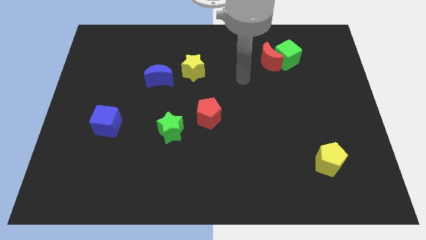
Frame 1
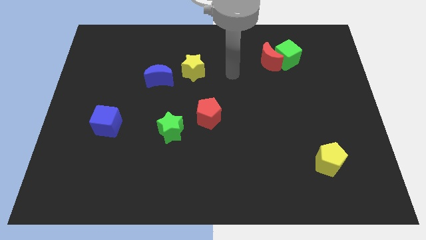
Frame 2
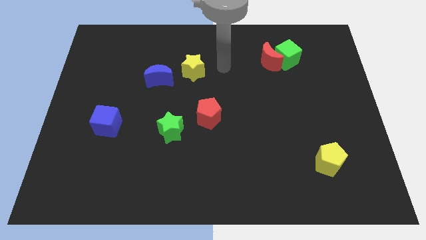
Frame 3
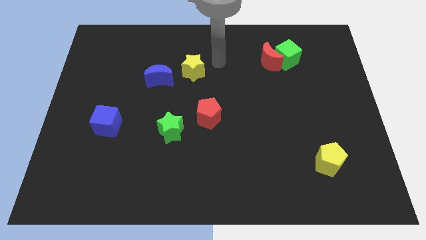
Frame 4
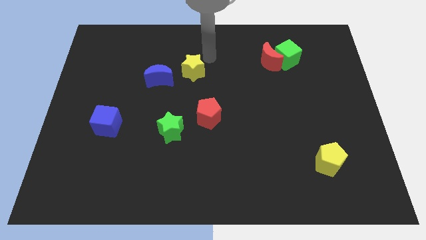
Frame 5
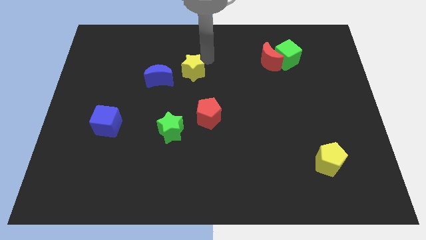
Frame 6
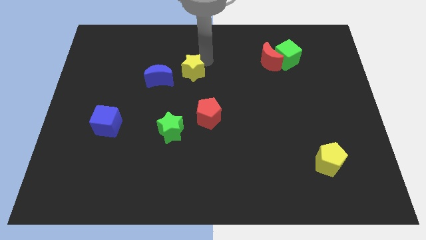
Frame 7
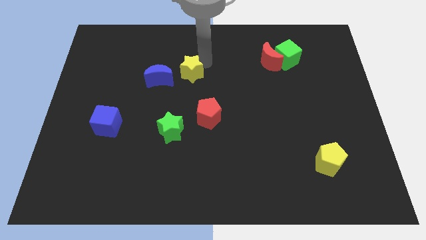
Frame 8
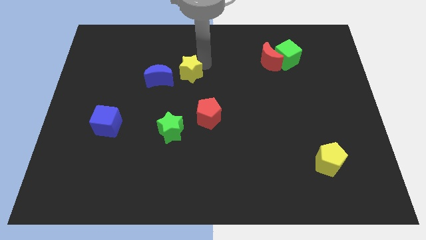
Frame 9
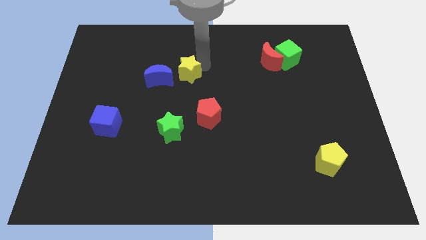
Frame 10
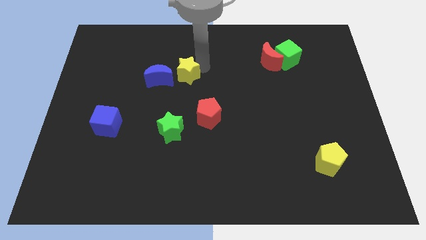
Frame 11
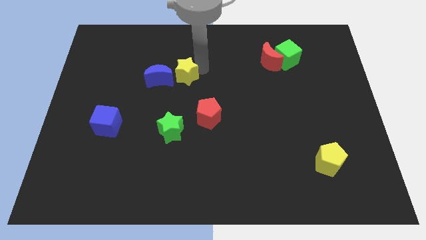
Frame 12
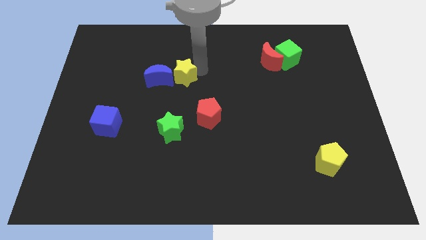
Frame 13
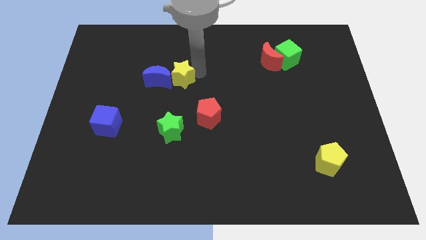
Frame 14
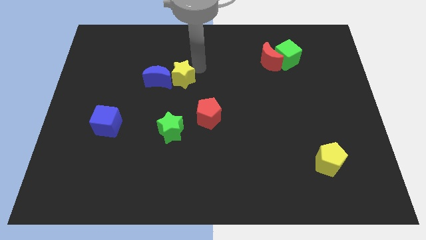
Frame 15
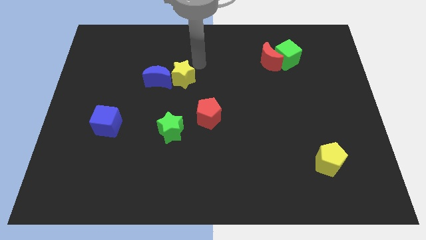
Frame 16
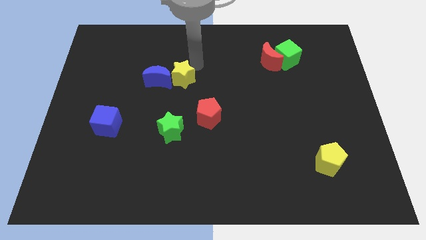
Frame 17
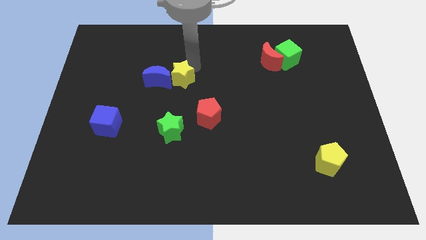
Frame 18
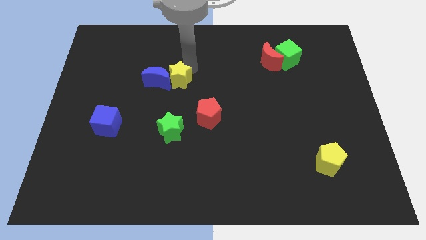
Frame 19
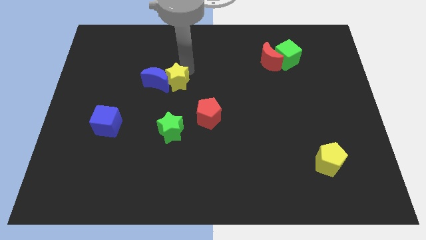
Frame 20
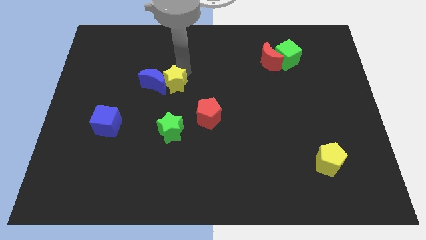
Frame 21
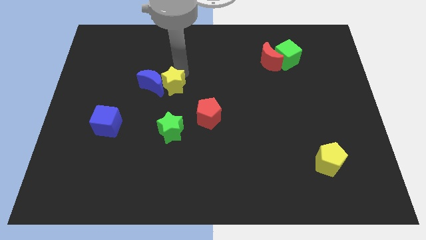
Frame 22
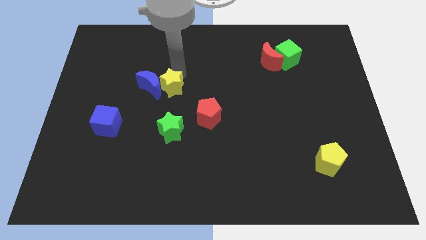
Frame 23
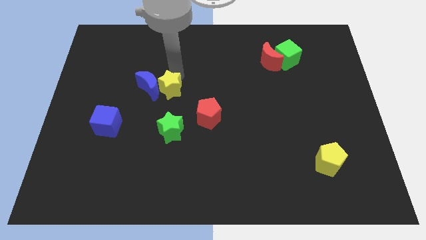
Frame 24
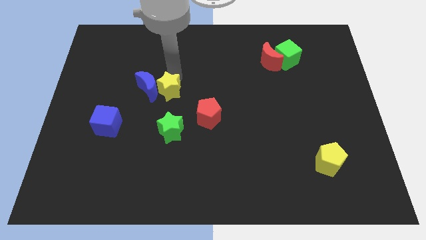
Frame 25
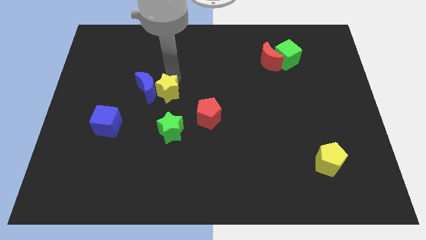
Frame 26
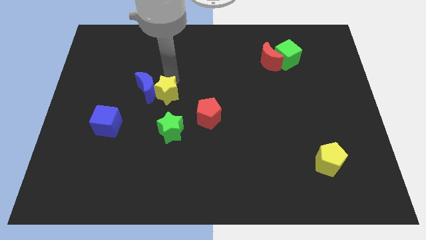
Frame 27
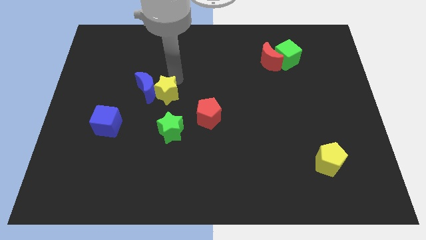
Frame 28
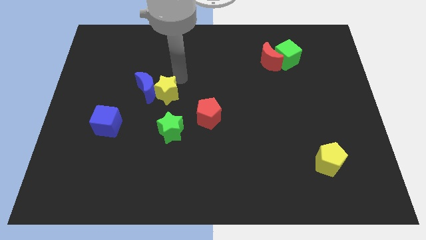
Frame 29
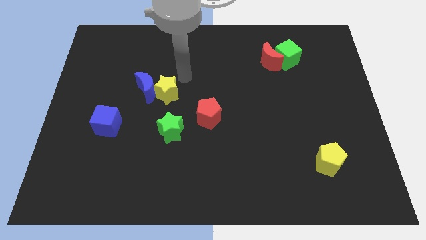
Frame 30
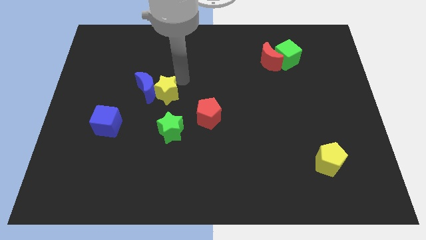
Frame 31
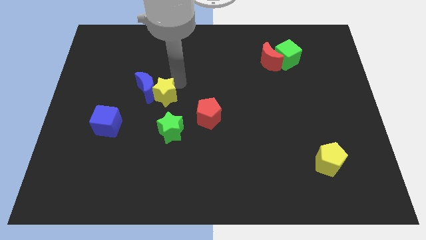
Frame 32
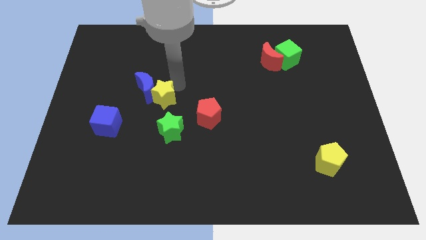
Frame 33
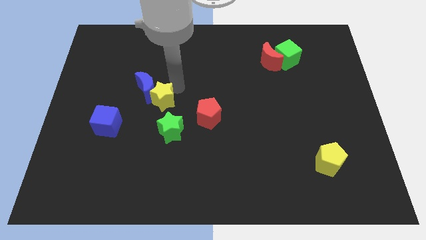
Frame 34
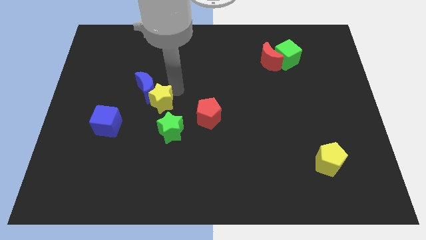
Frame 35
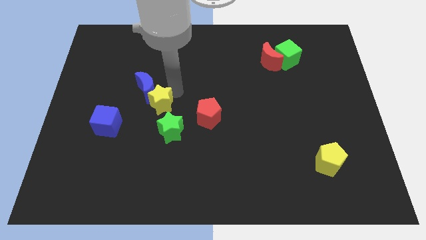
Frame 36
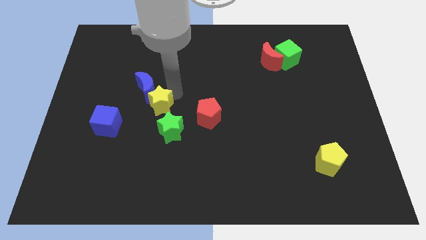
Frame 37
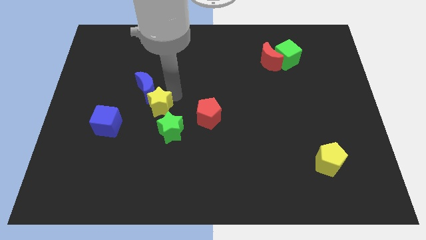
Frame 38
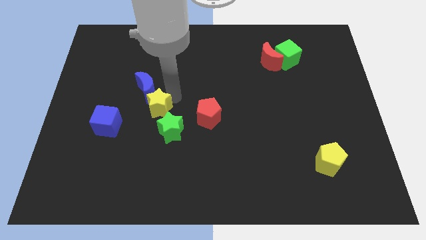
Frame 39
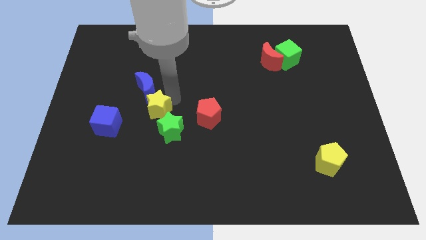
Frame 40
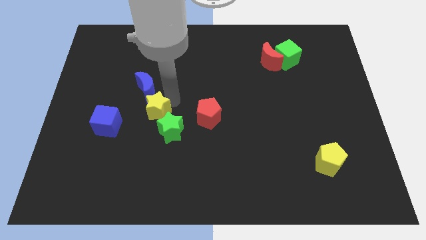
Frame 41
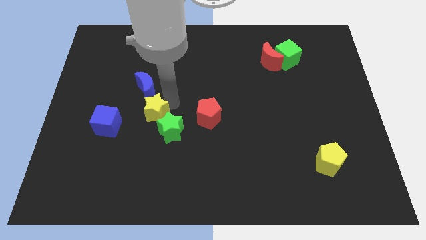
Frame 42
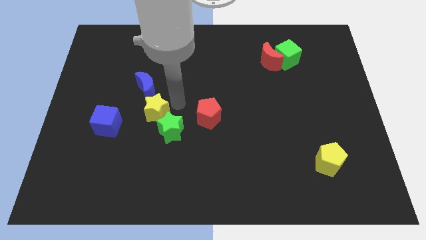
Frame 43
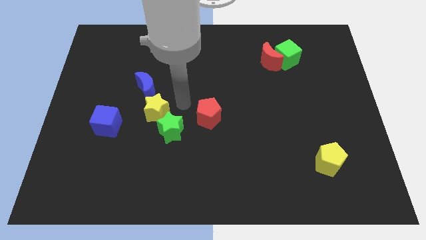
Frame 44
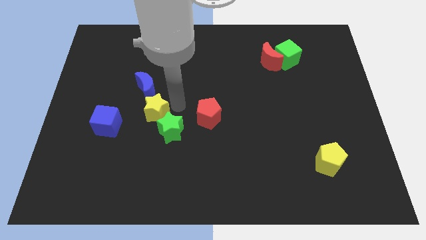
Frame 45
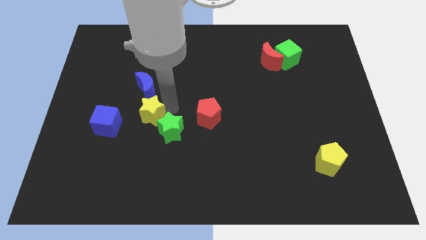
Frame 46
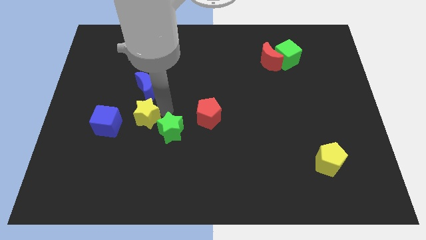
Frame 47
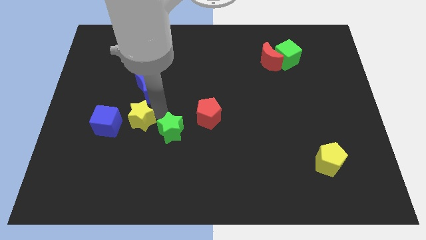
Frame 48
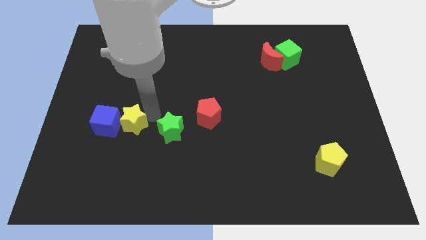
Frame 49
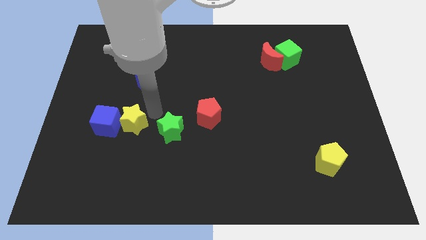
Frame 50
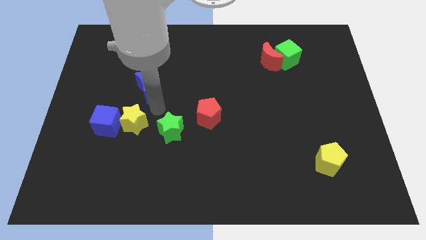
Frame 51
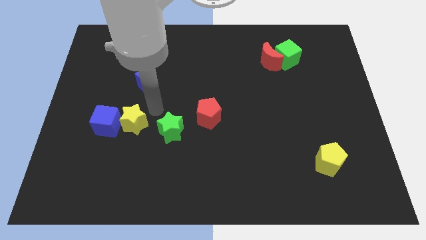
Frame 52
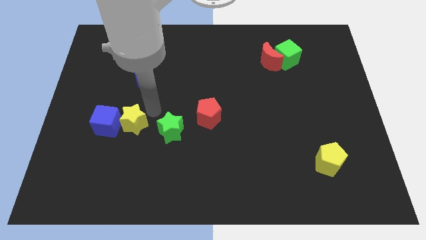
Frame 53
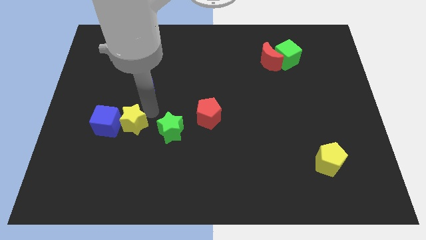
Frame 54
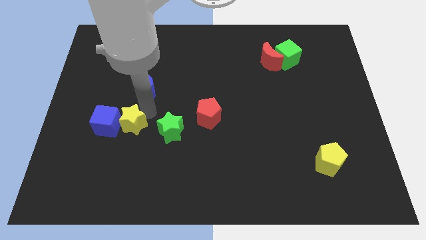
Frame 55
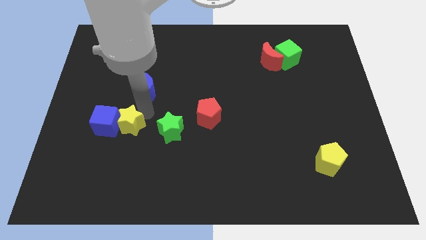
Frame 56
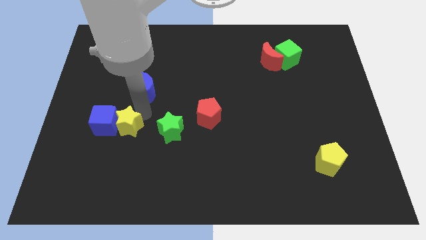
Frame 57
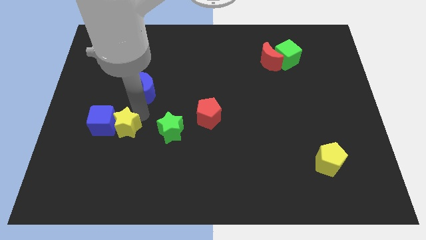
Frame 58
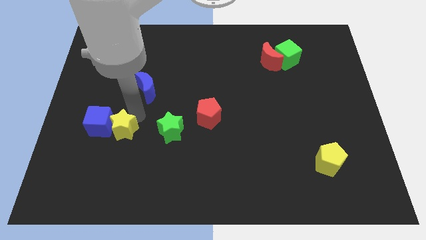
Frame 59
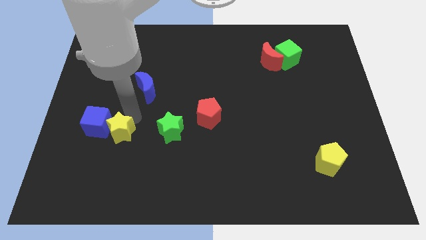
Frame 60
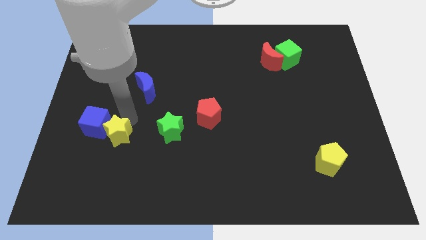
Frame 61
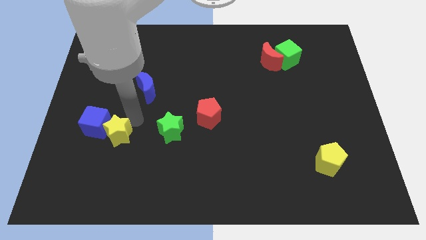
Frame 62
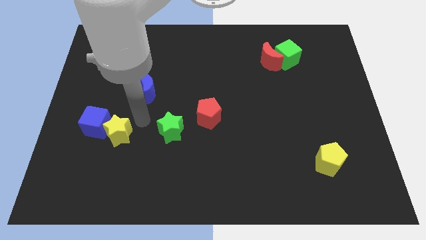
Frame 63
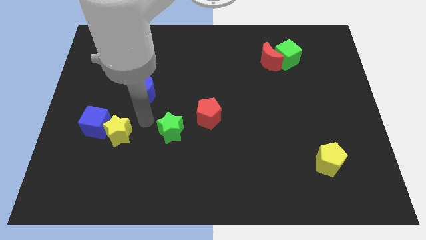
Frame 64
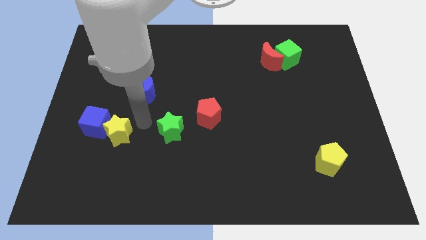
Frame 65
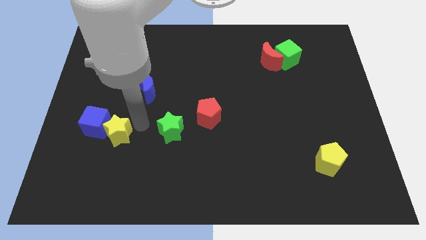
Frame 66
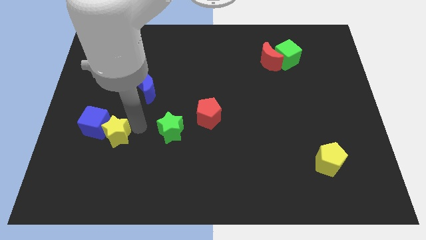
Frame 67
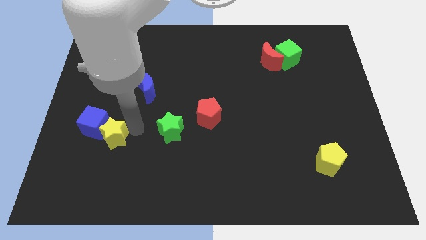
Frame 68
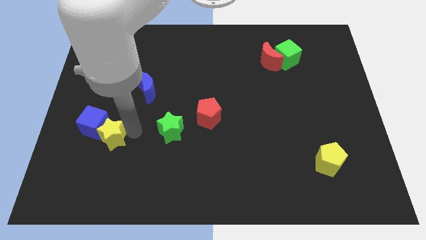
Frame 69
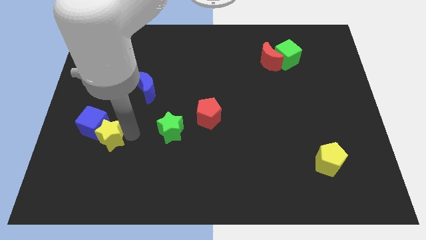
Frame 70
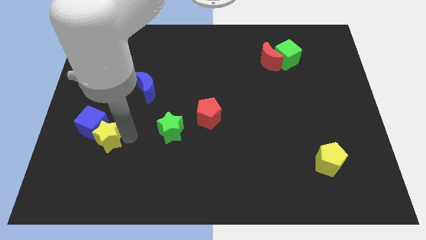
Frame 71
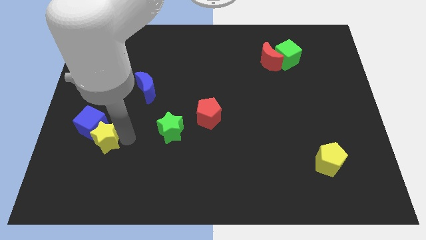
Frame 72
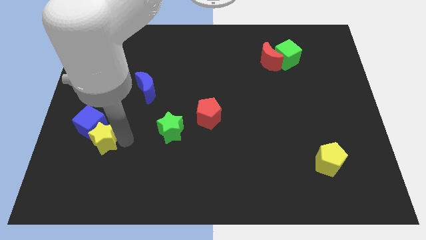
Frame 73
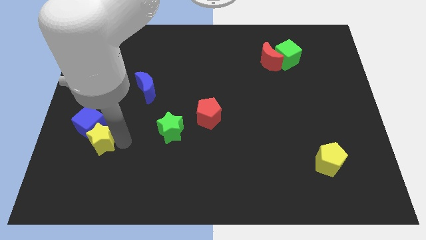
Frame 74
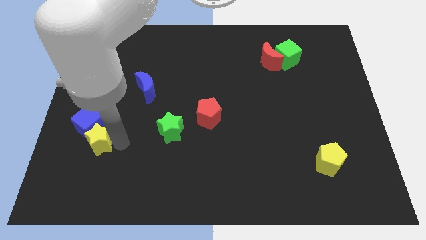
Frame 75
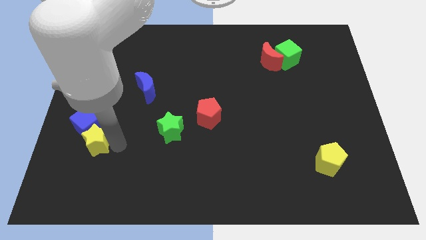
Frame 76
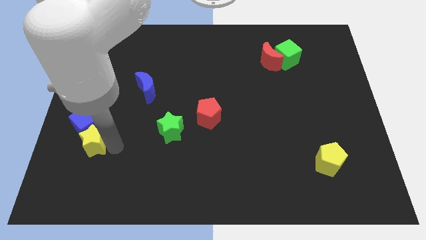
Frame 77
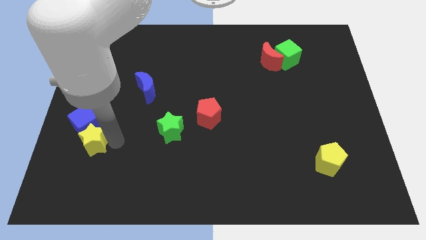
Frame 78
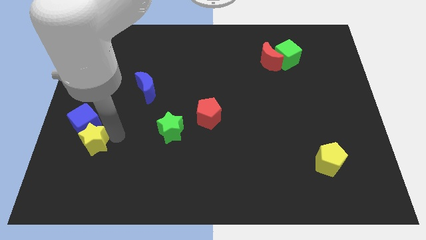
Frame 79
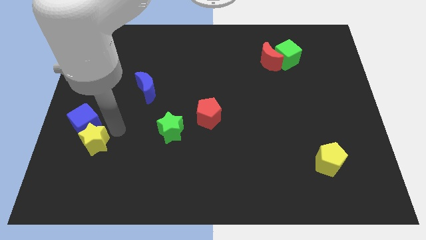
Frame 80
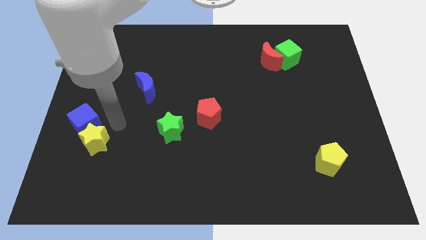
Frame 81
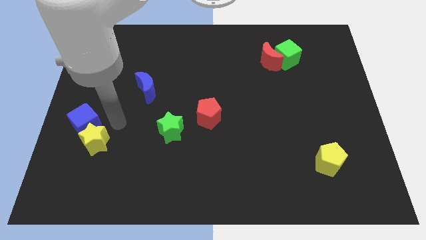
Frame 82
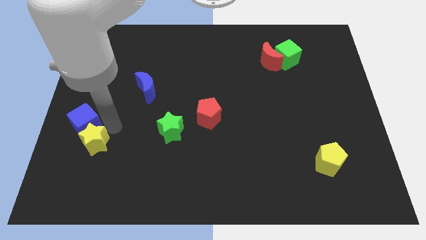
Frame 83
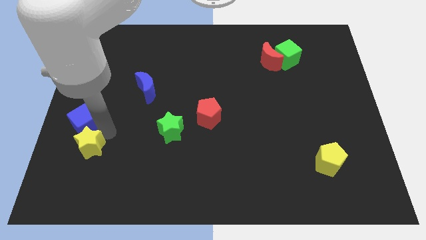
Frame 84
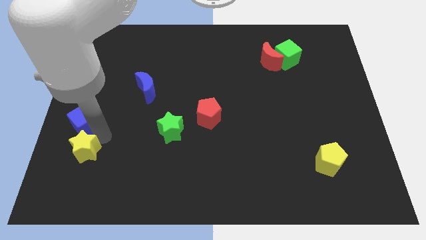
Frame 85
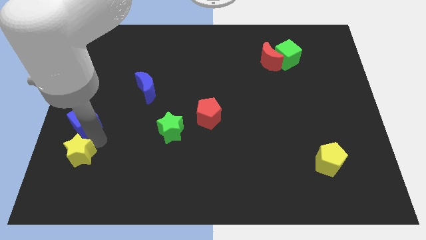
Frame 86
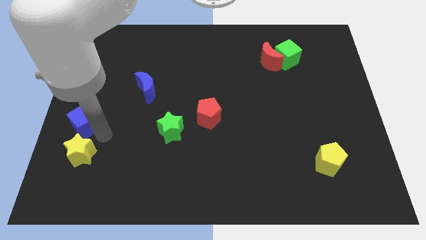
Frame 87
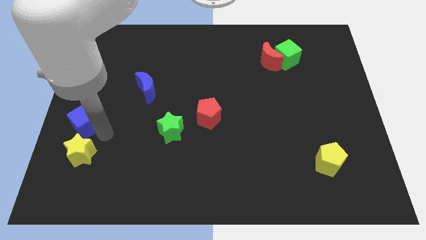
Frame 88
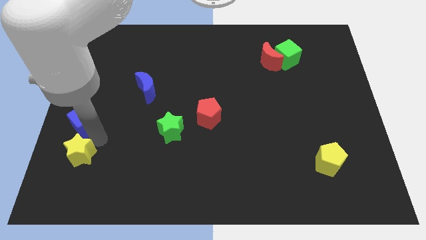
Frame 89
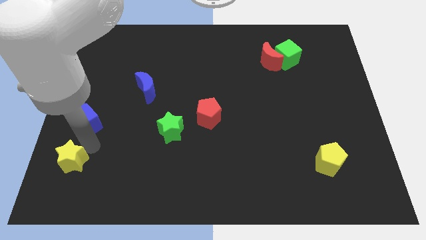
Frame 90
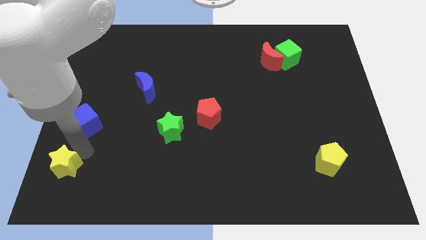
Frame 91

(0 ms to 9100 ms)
slide the yellow star to the bottom left of the board
